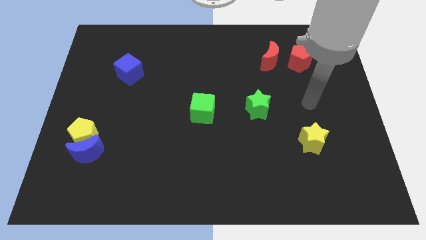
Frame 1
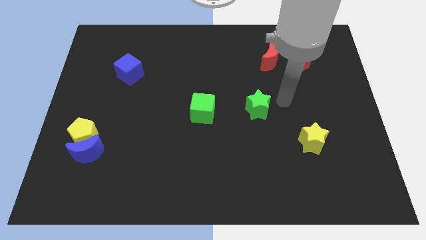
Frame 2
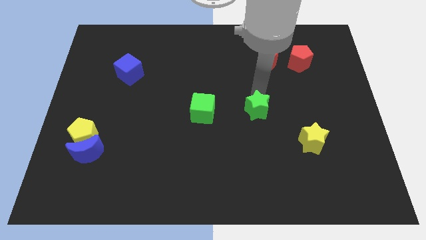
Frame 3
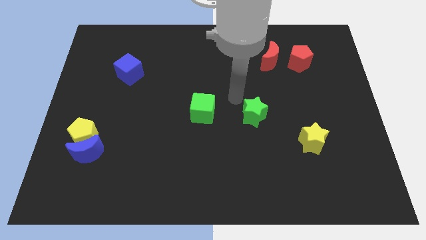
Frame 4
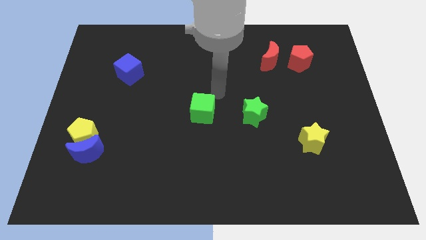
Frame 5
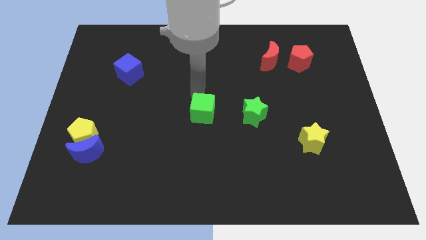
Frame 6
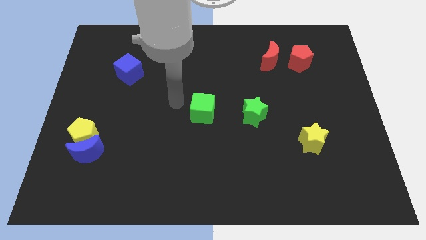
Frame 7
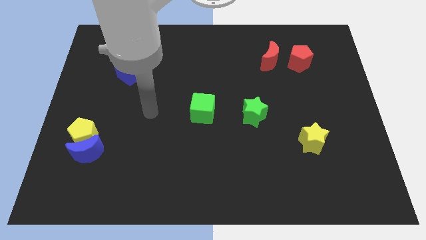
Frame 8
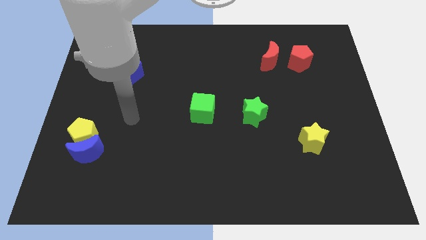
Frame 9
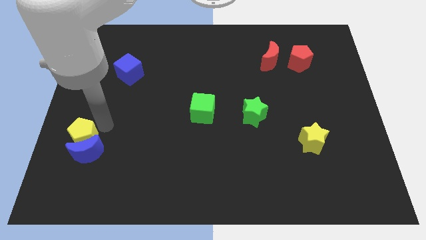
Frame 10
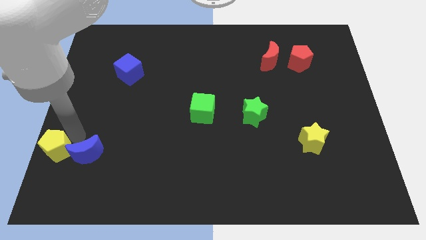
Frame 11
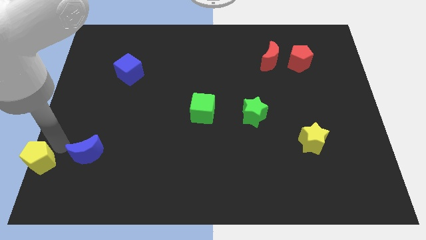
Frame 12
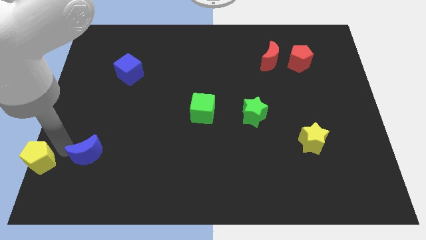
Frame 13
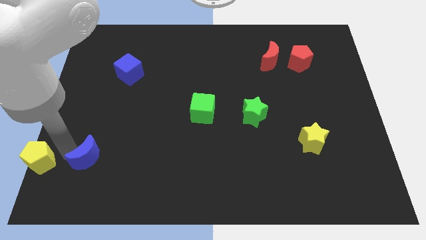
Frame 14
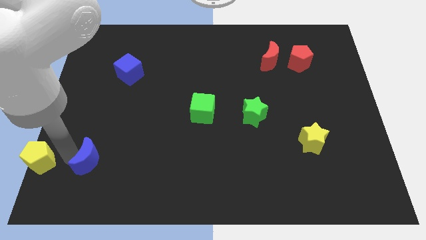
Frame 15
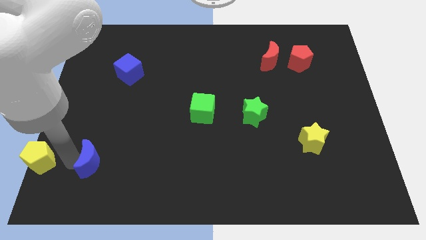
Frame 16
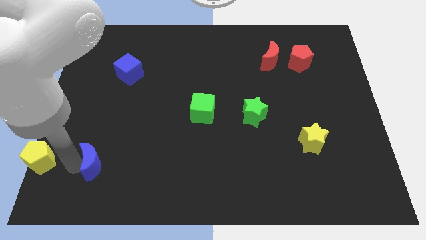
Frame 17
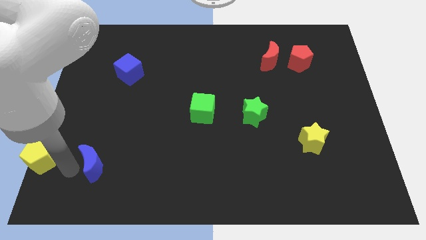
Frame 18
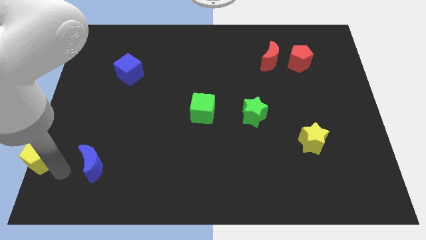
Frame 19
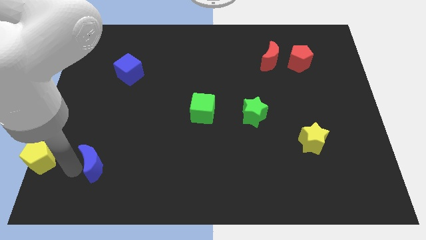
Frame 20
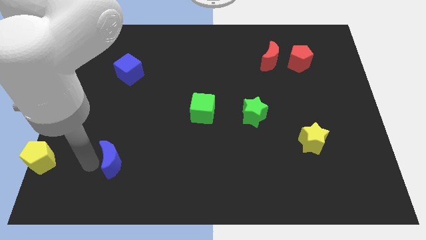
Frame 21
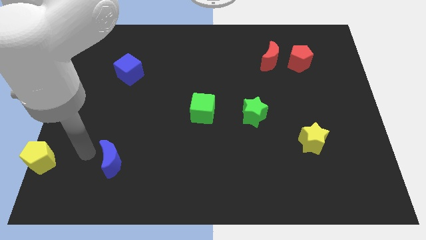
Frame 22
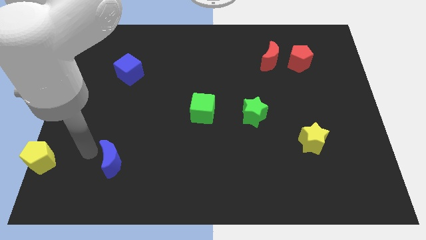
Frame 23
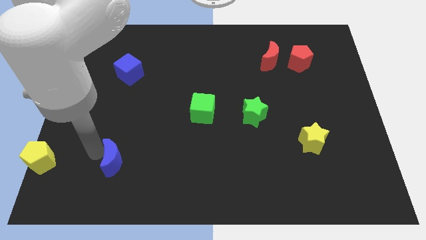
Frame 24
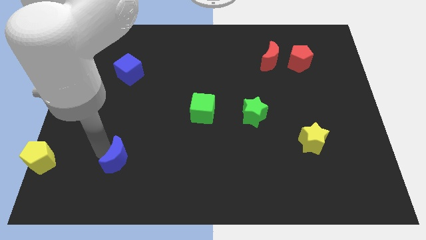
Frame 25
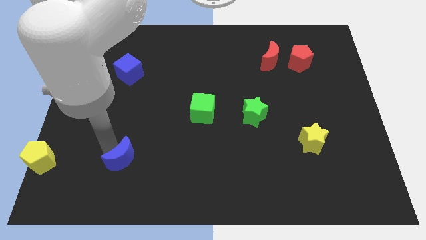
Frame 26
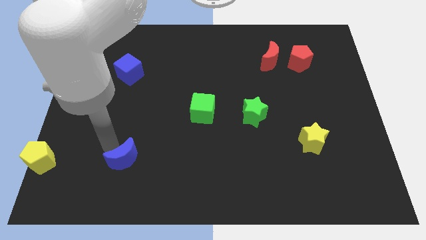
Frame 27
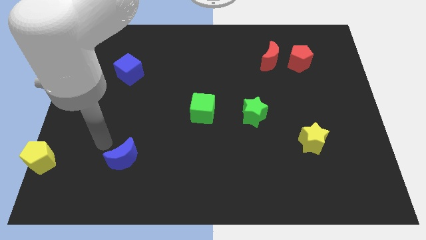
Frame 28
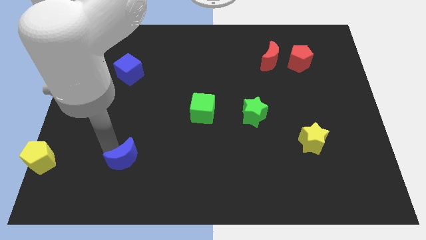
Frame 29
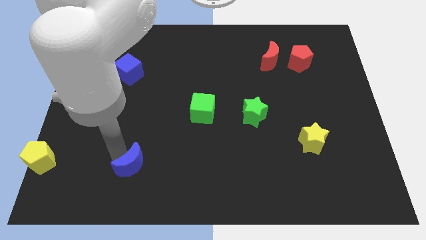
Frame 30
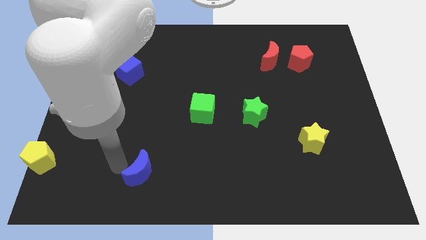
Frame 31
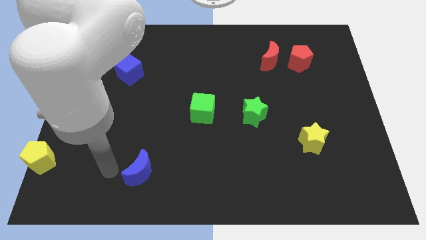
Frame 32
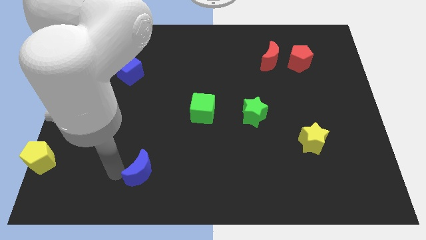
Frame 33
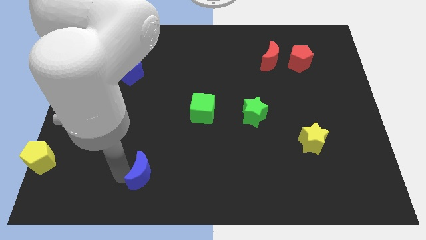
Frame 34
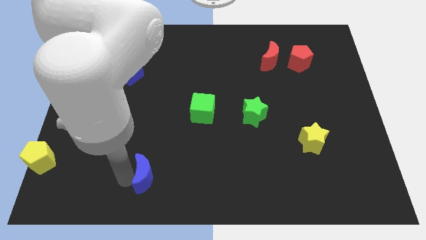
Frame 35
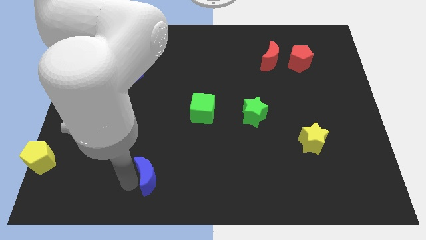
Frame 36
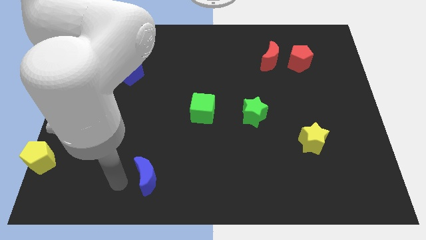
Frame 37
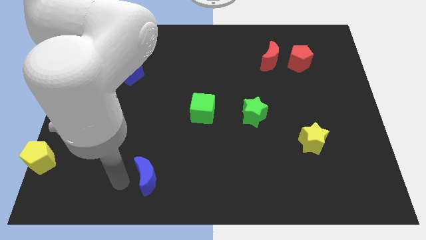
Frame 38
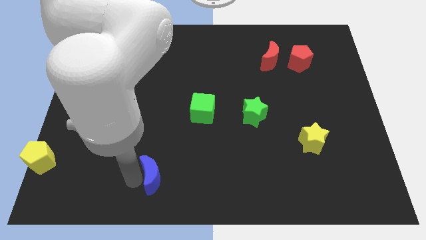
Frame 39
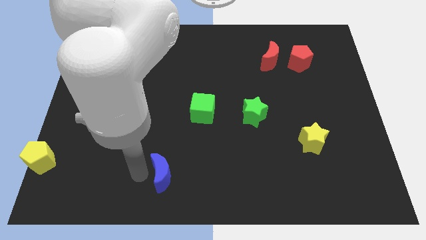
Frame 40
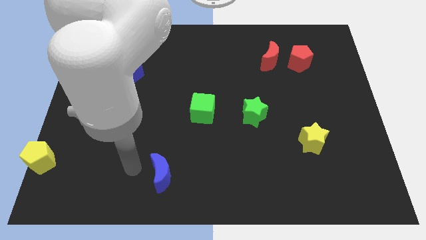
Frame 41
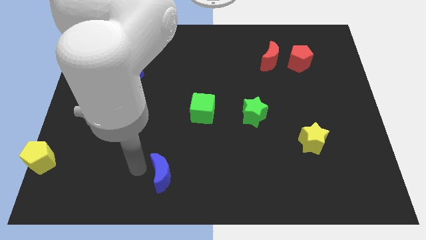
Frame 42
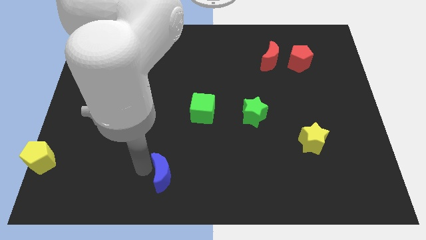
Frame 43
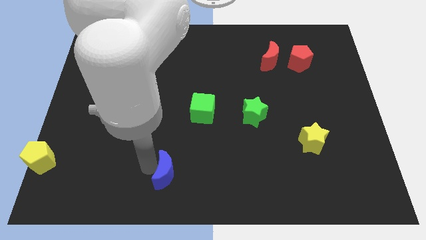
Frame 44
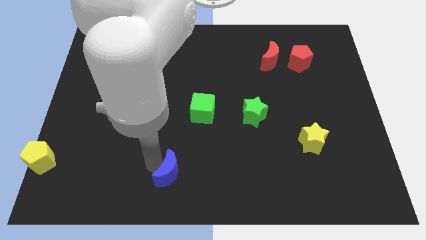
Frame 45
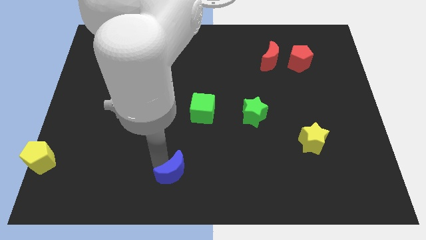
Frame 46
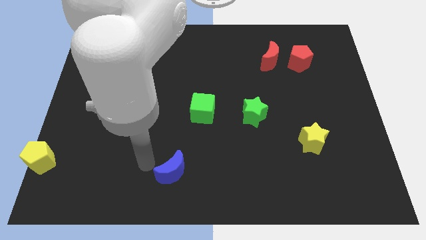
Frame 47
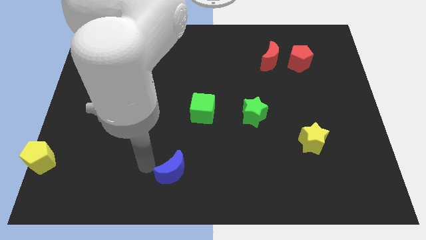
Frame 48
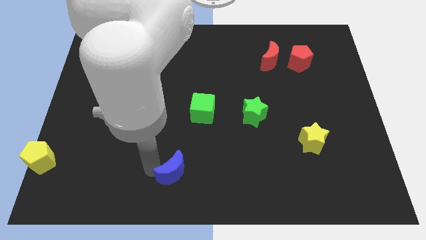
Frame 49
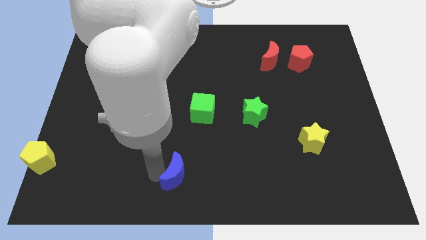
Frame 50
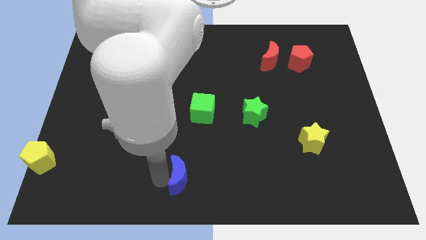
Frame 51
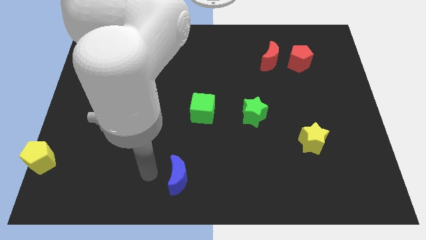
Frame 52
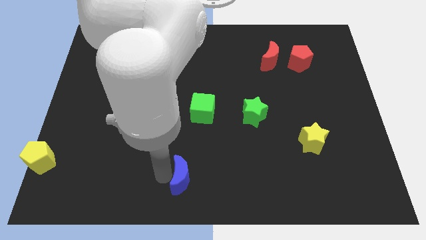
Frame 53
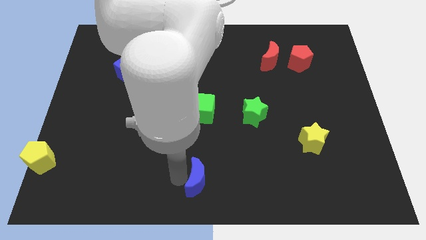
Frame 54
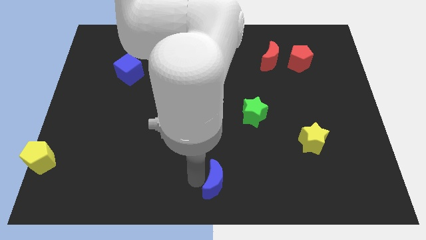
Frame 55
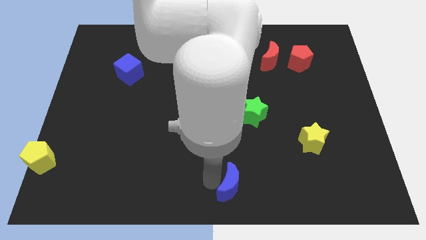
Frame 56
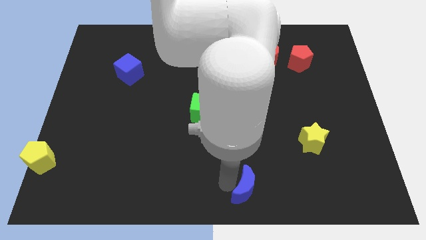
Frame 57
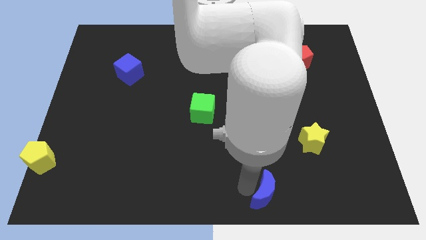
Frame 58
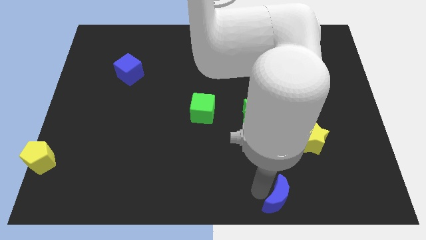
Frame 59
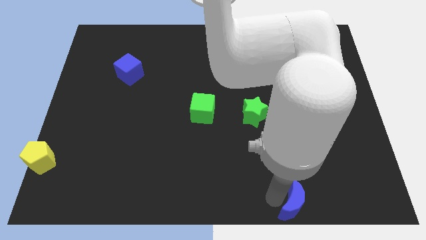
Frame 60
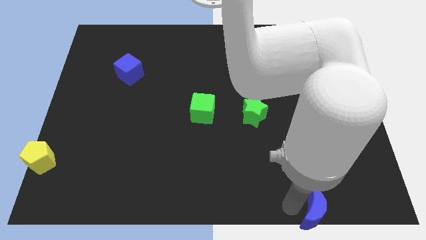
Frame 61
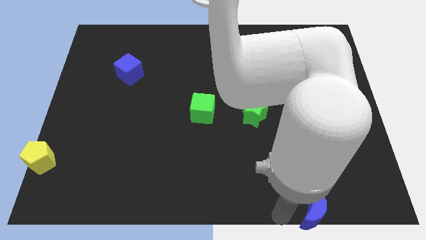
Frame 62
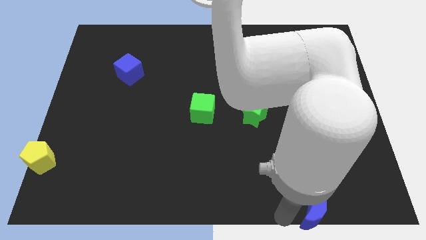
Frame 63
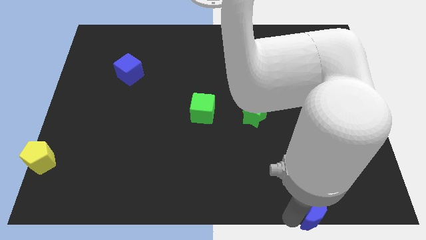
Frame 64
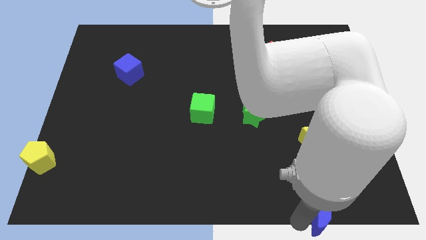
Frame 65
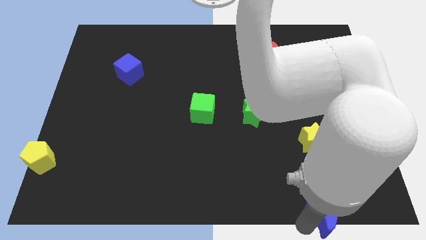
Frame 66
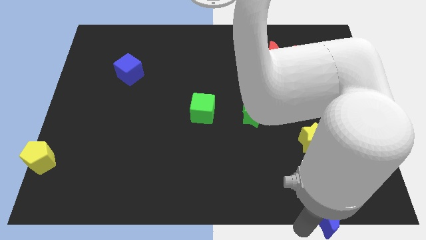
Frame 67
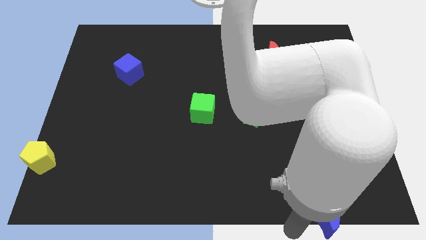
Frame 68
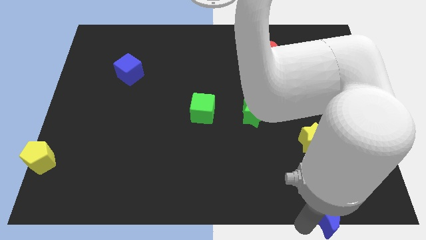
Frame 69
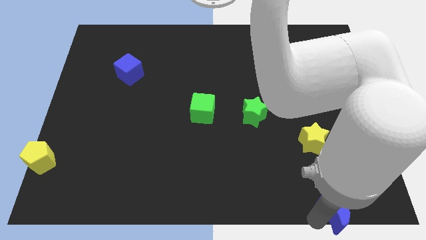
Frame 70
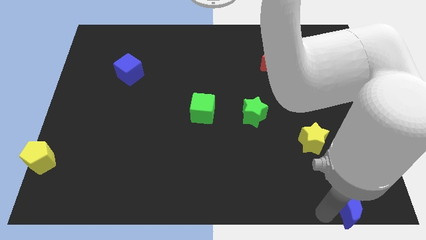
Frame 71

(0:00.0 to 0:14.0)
slide the blue moon to the bottom right
